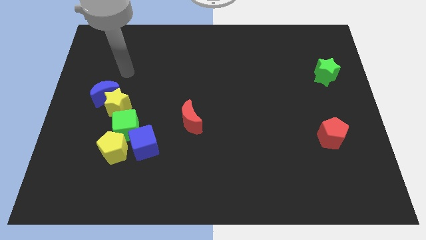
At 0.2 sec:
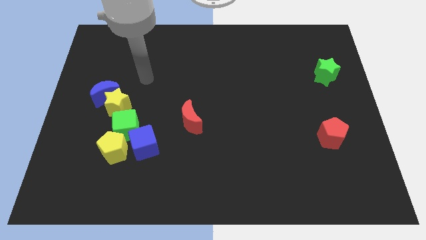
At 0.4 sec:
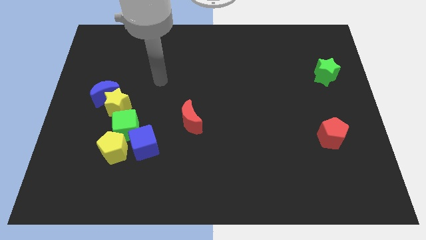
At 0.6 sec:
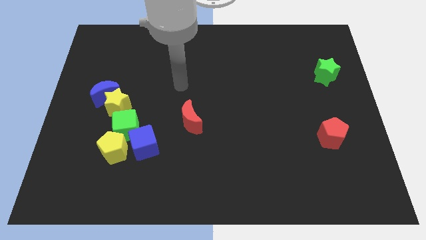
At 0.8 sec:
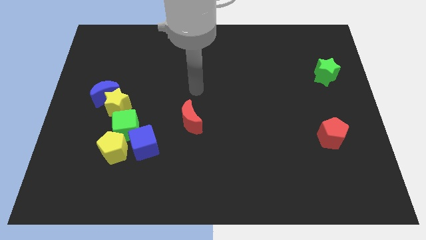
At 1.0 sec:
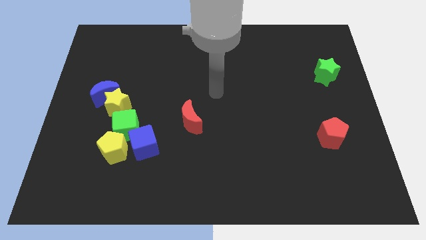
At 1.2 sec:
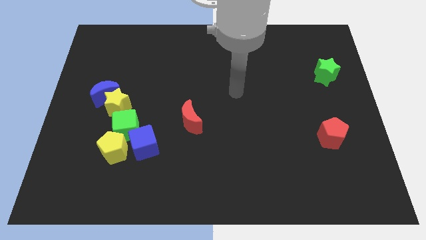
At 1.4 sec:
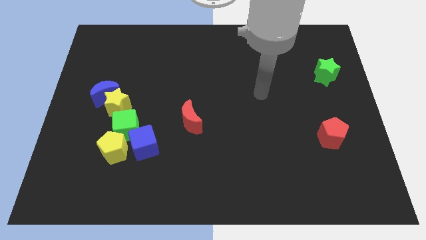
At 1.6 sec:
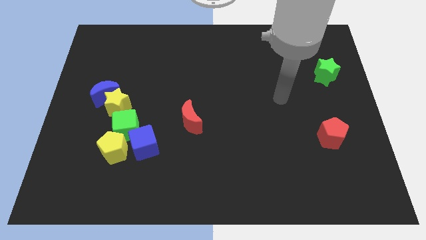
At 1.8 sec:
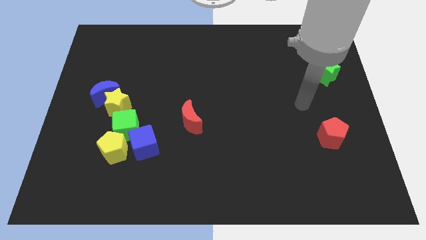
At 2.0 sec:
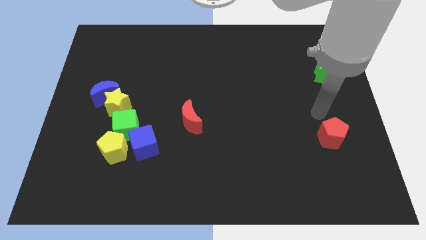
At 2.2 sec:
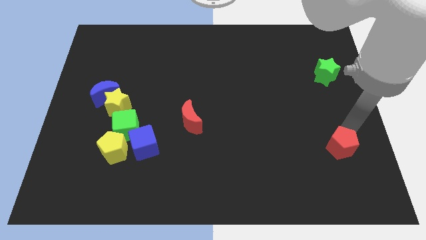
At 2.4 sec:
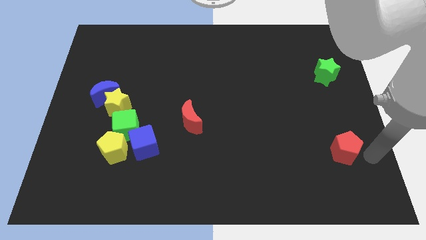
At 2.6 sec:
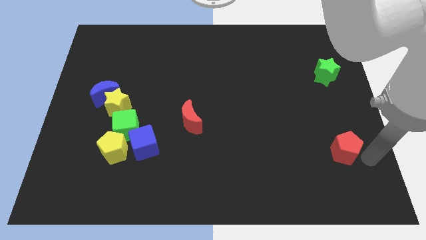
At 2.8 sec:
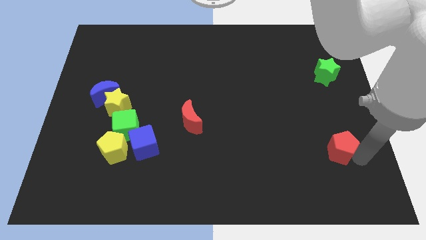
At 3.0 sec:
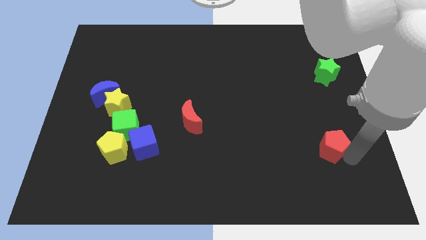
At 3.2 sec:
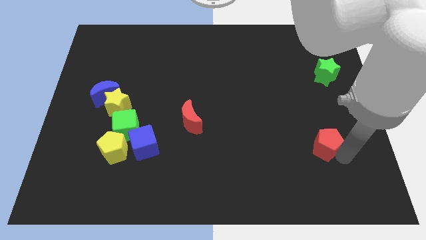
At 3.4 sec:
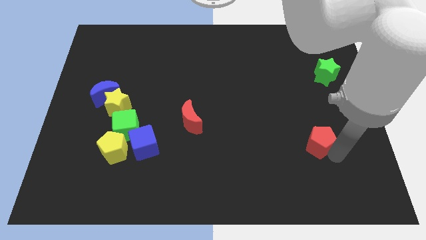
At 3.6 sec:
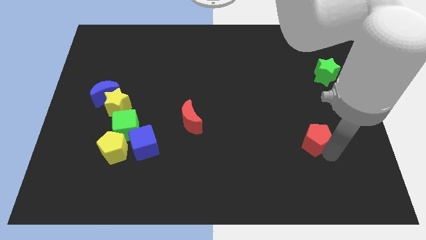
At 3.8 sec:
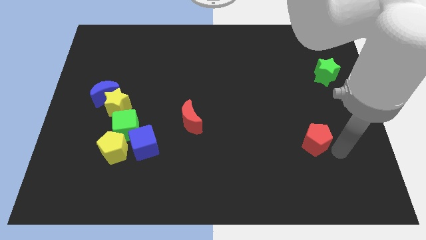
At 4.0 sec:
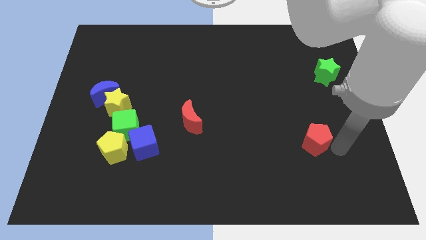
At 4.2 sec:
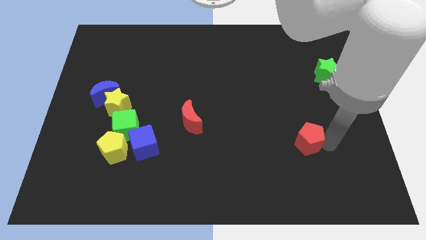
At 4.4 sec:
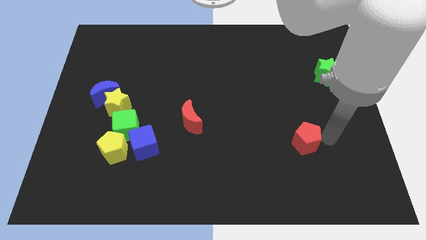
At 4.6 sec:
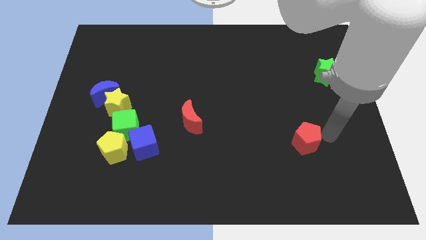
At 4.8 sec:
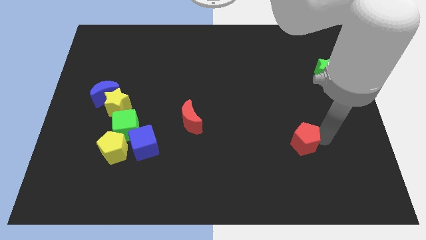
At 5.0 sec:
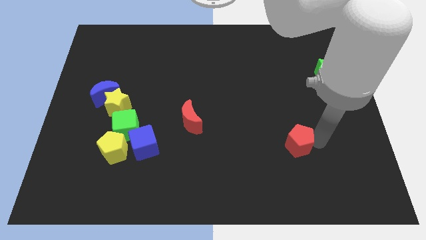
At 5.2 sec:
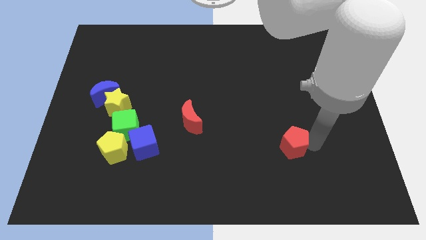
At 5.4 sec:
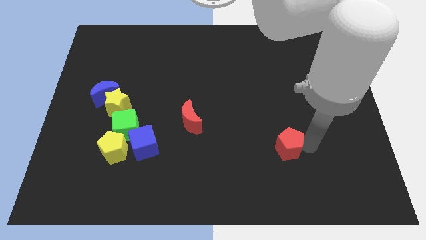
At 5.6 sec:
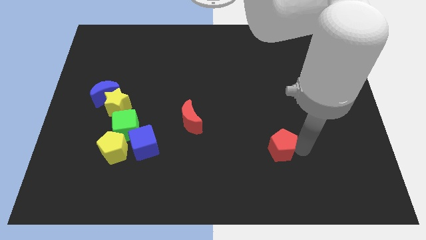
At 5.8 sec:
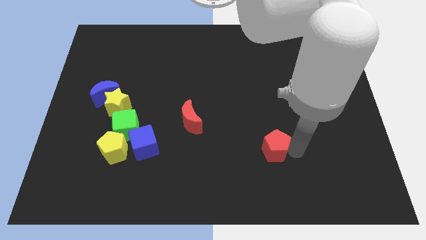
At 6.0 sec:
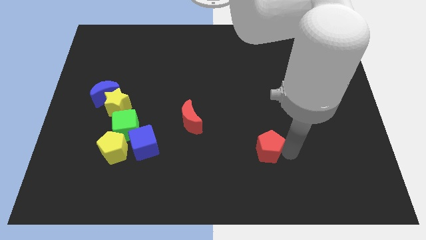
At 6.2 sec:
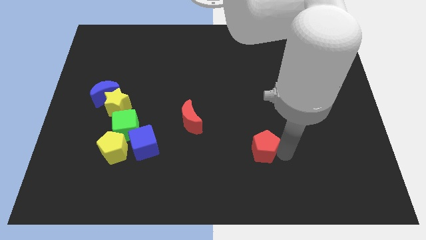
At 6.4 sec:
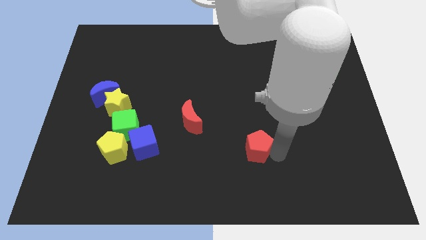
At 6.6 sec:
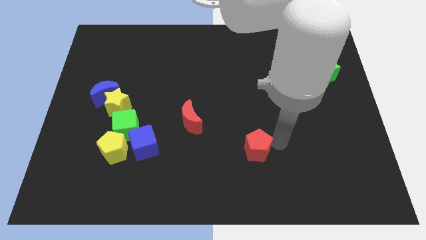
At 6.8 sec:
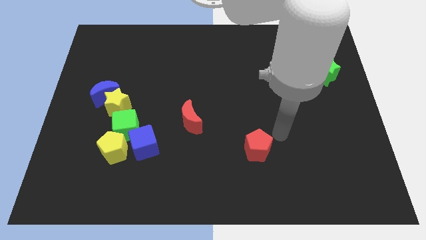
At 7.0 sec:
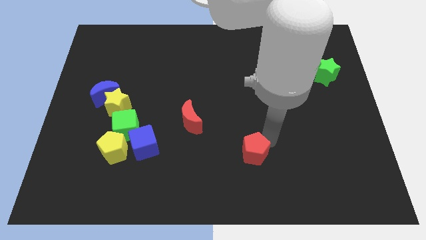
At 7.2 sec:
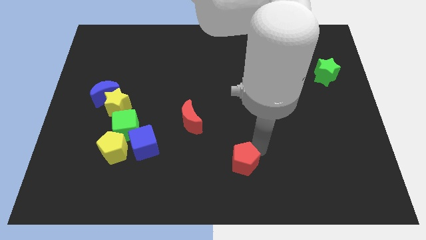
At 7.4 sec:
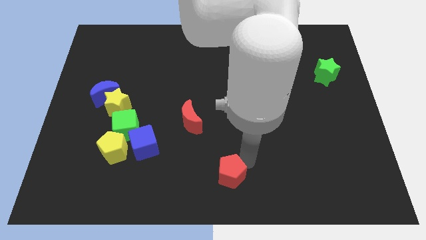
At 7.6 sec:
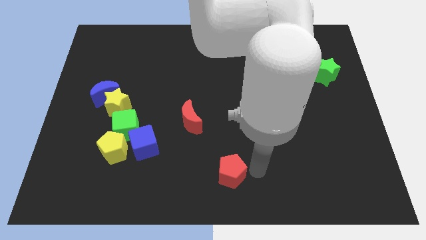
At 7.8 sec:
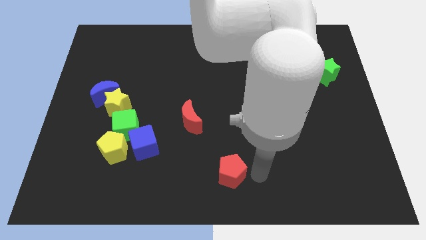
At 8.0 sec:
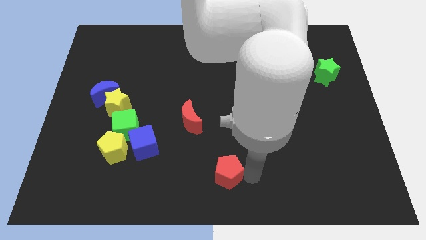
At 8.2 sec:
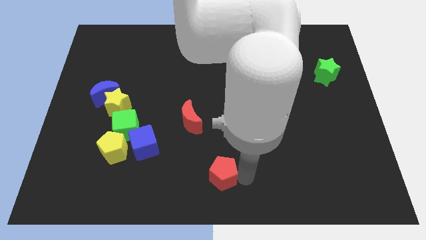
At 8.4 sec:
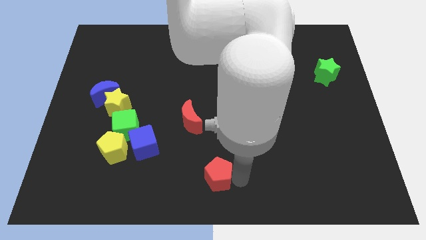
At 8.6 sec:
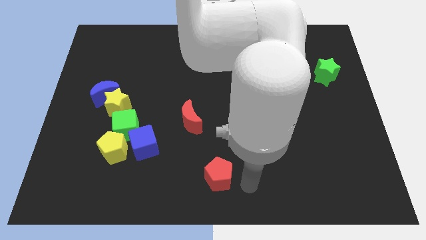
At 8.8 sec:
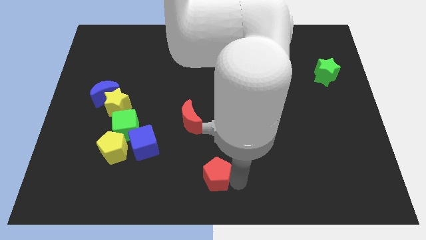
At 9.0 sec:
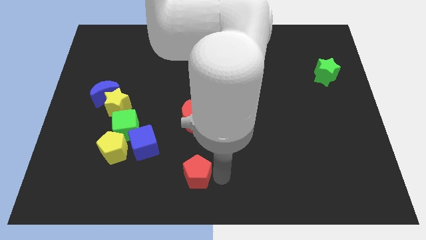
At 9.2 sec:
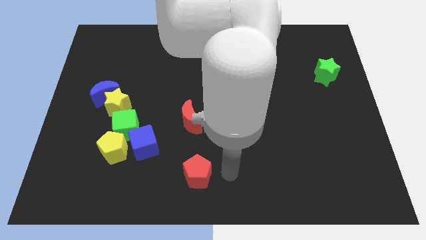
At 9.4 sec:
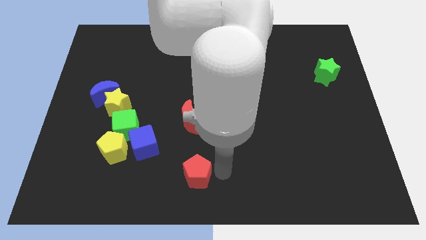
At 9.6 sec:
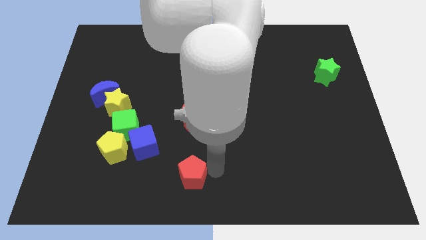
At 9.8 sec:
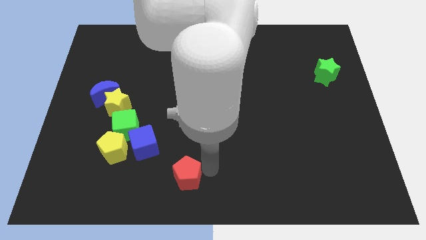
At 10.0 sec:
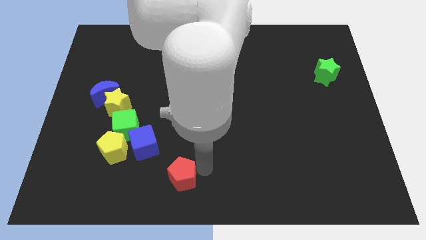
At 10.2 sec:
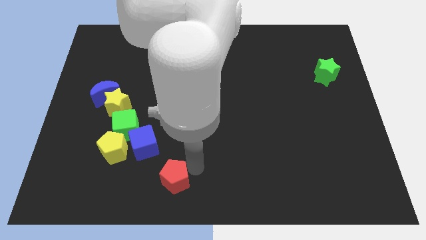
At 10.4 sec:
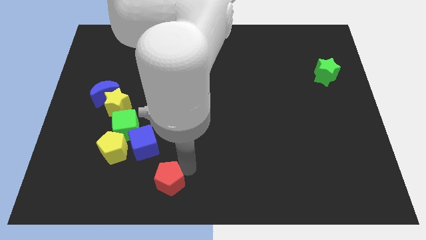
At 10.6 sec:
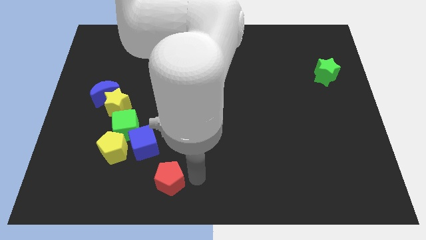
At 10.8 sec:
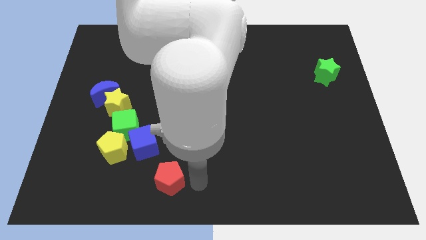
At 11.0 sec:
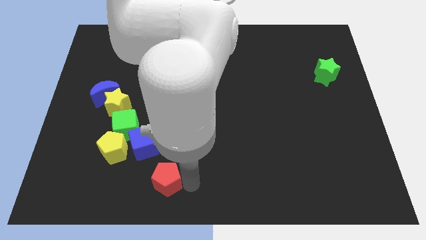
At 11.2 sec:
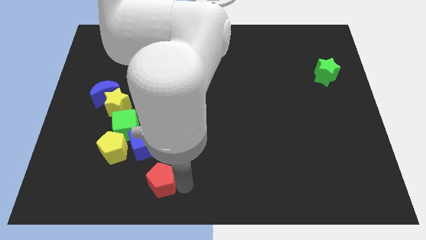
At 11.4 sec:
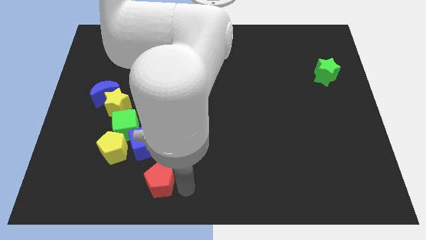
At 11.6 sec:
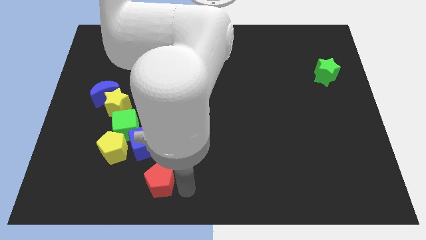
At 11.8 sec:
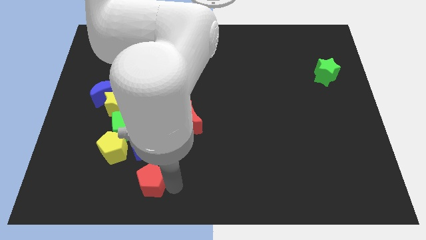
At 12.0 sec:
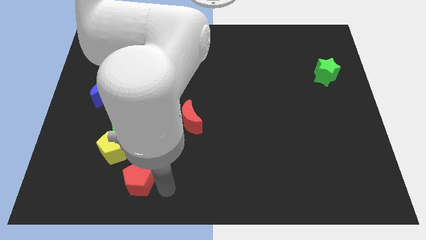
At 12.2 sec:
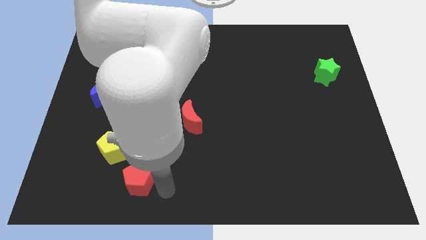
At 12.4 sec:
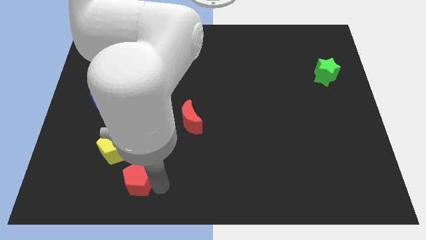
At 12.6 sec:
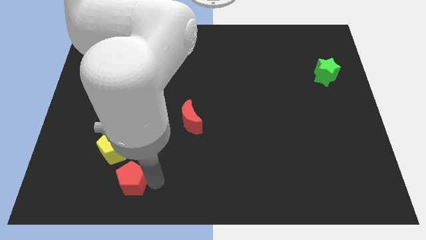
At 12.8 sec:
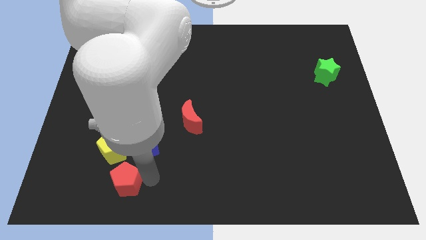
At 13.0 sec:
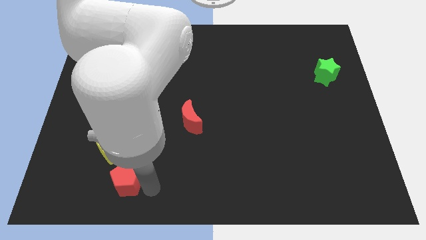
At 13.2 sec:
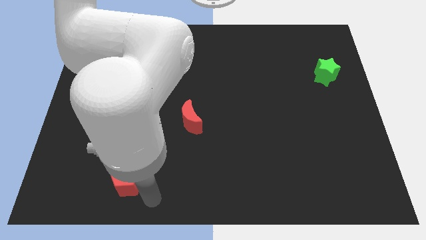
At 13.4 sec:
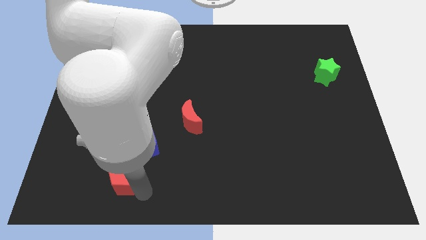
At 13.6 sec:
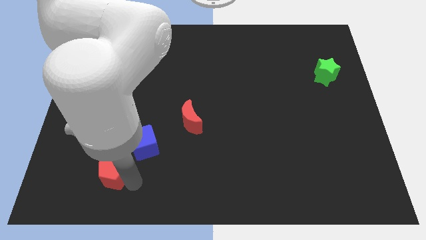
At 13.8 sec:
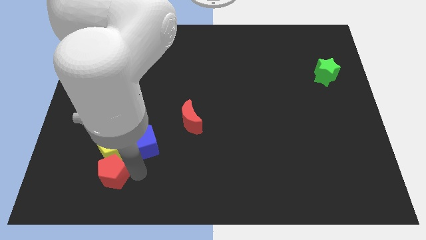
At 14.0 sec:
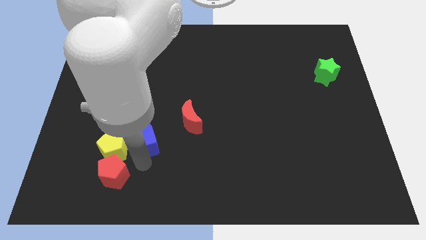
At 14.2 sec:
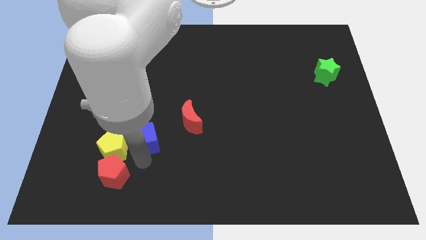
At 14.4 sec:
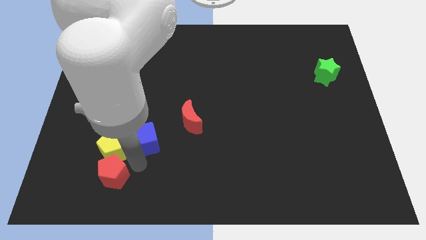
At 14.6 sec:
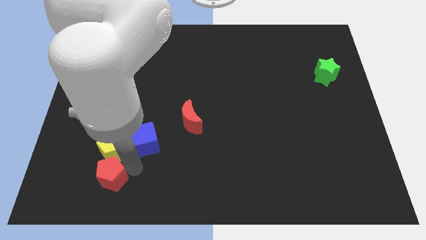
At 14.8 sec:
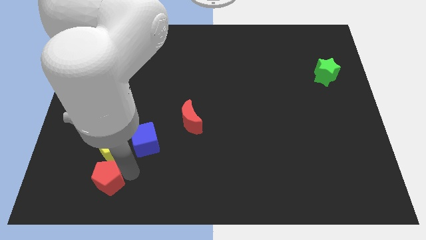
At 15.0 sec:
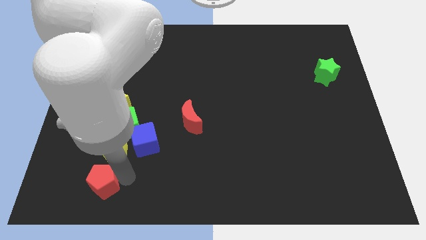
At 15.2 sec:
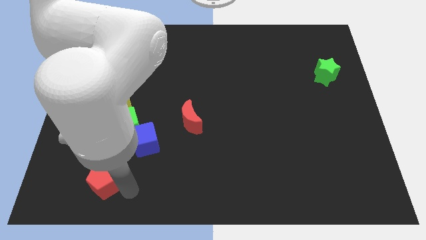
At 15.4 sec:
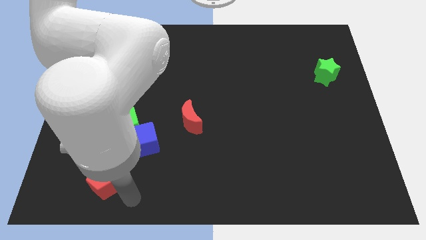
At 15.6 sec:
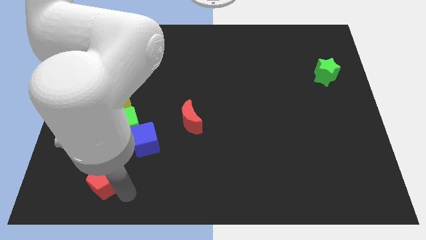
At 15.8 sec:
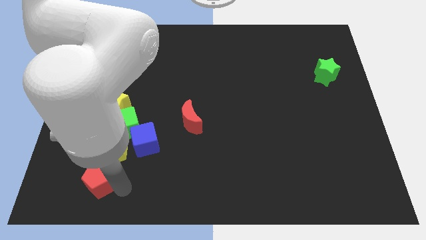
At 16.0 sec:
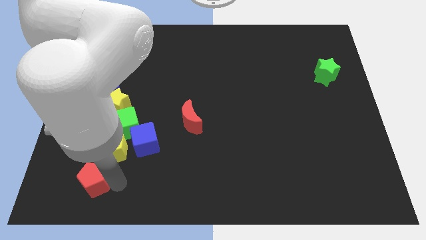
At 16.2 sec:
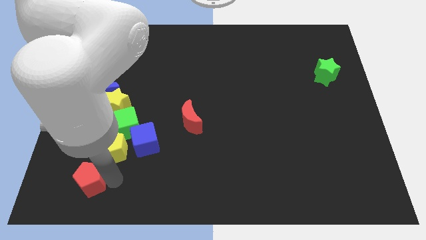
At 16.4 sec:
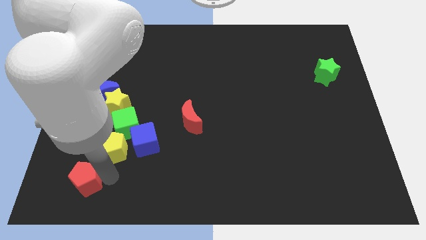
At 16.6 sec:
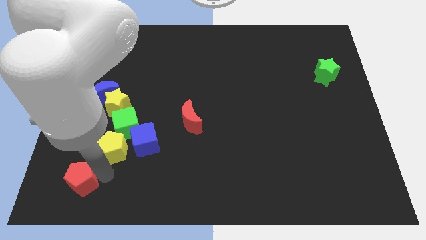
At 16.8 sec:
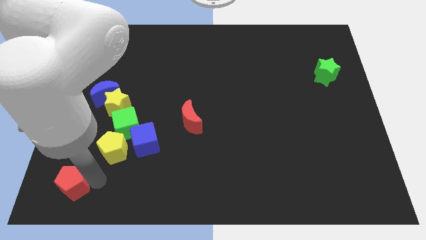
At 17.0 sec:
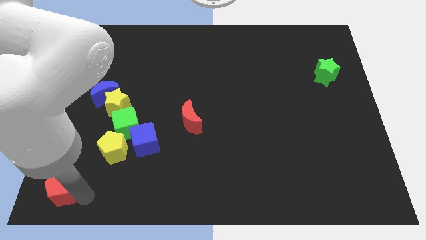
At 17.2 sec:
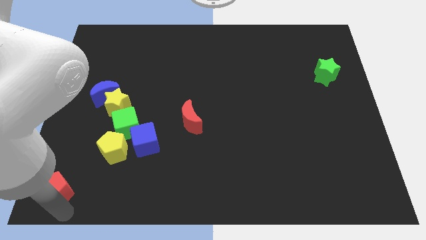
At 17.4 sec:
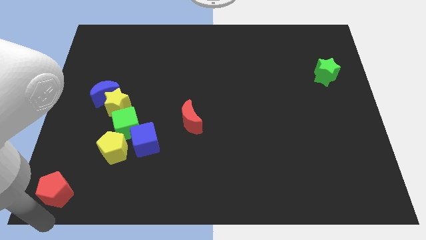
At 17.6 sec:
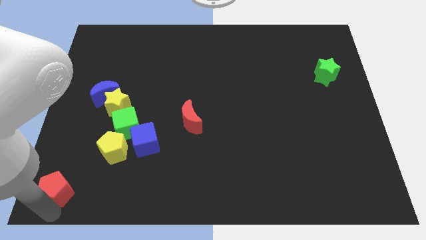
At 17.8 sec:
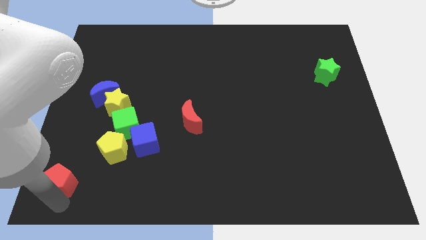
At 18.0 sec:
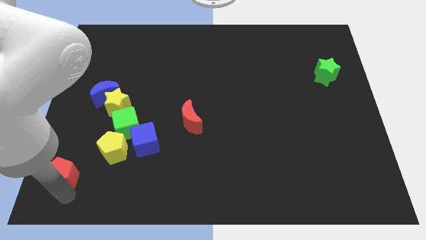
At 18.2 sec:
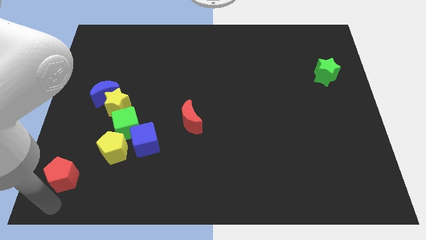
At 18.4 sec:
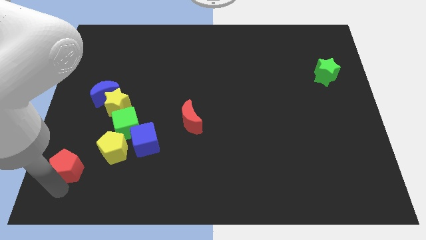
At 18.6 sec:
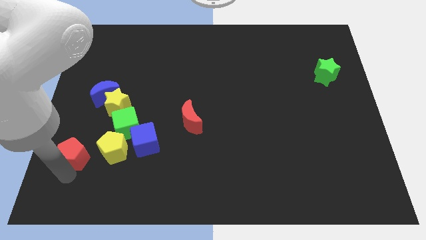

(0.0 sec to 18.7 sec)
move the red pentagon left of the blue cube
